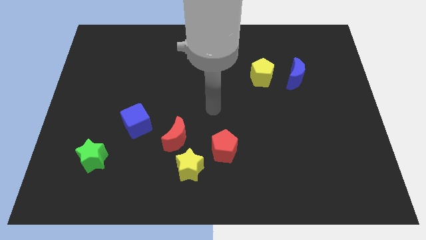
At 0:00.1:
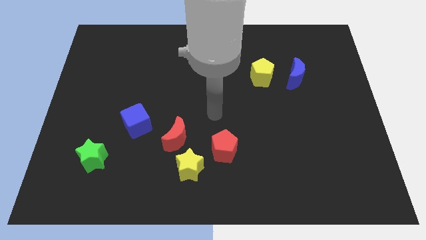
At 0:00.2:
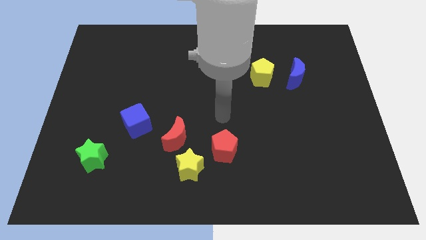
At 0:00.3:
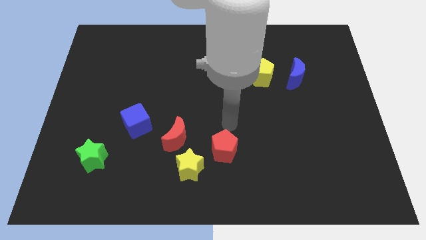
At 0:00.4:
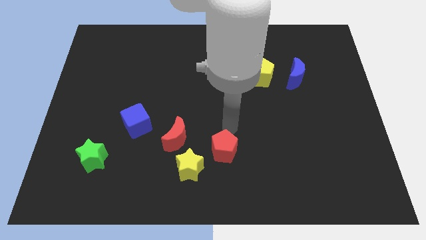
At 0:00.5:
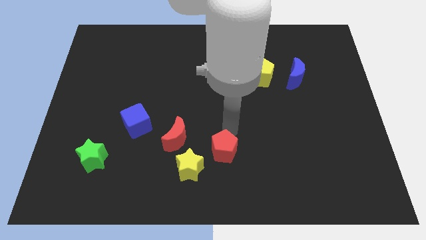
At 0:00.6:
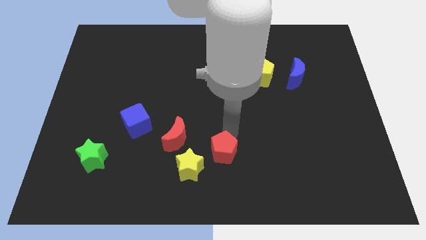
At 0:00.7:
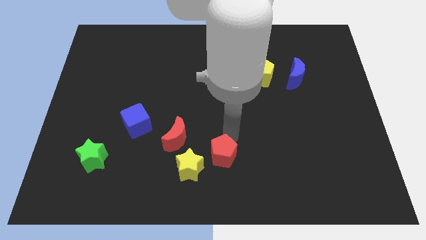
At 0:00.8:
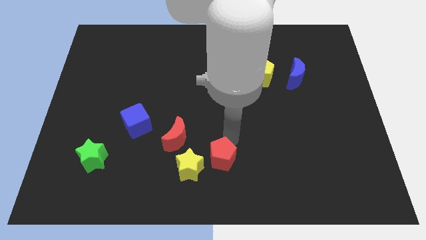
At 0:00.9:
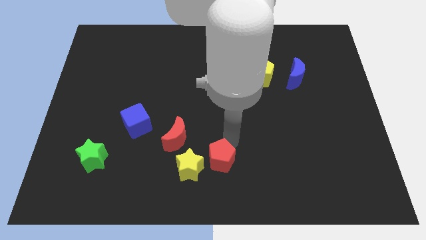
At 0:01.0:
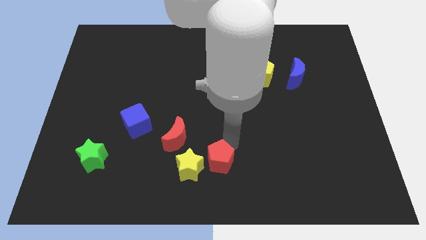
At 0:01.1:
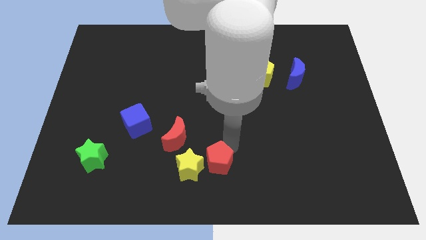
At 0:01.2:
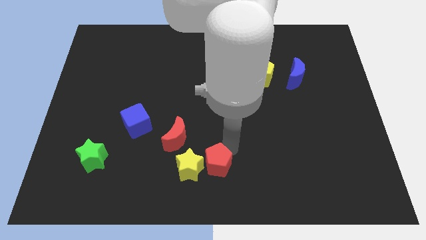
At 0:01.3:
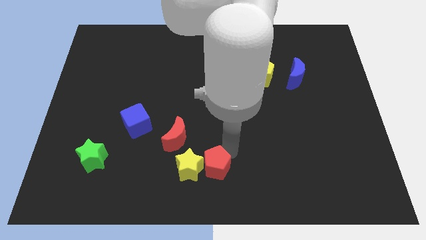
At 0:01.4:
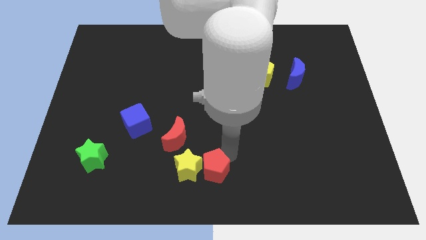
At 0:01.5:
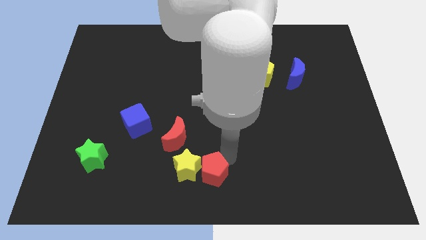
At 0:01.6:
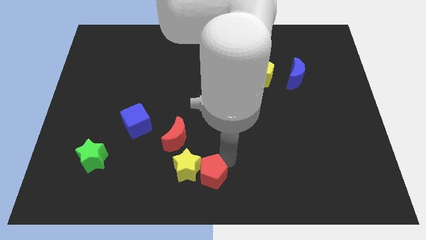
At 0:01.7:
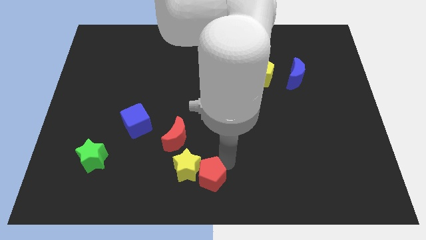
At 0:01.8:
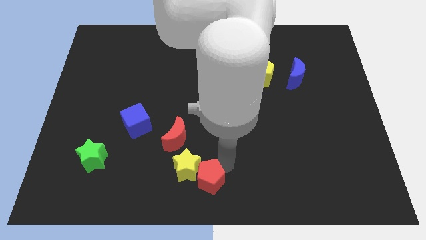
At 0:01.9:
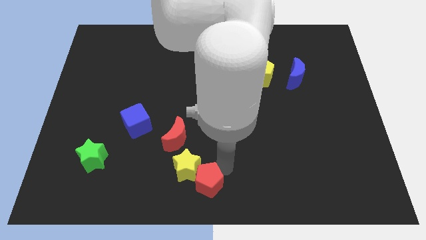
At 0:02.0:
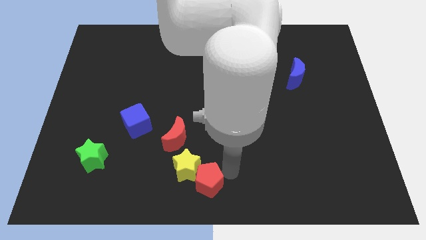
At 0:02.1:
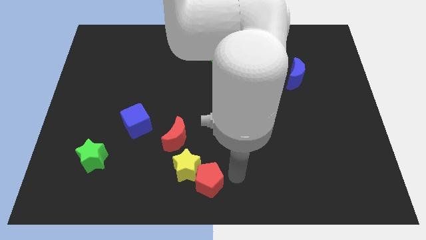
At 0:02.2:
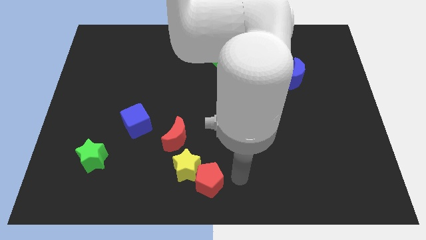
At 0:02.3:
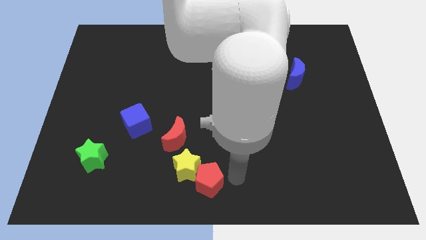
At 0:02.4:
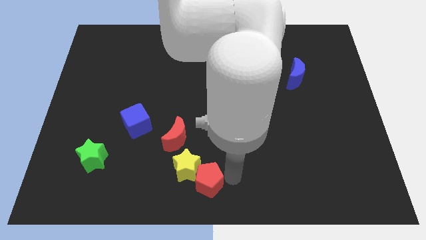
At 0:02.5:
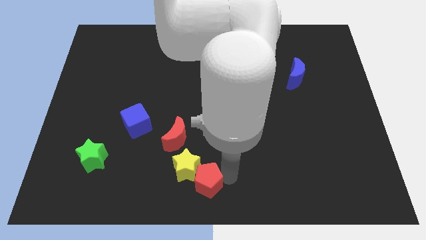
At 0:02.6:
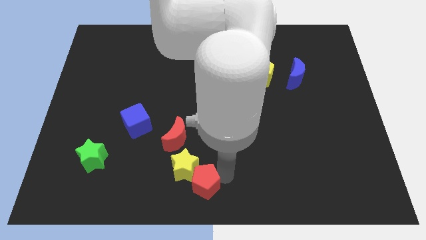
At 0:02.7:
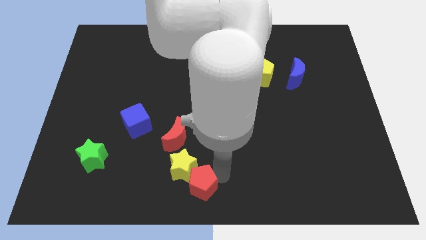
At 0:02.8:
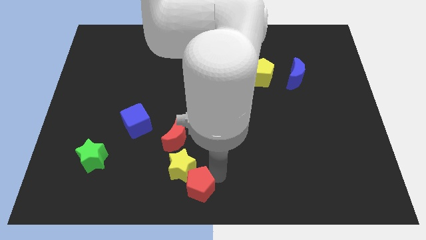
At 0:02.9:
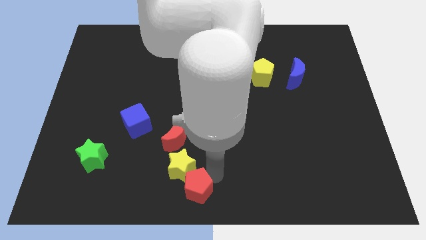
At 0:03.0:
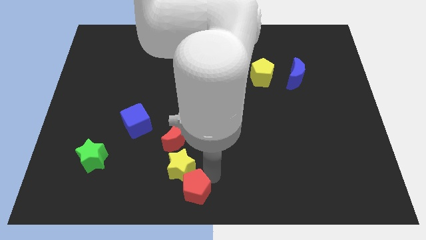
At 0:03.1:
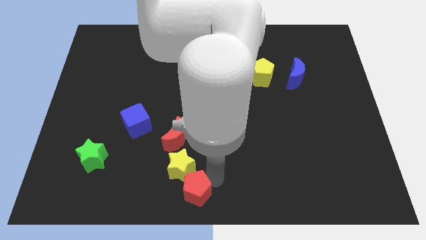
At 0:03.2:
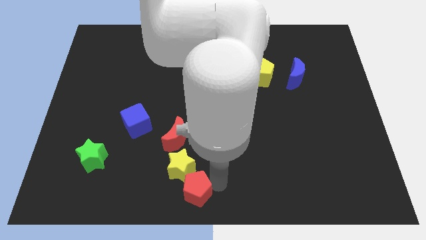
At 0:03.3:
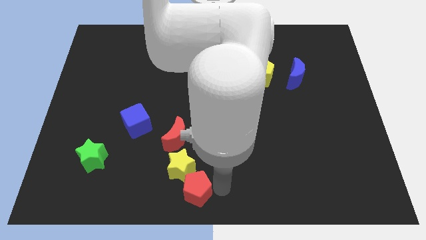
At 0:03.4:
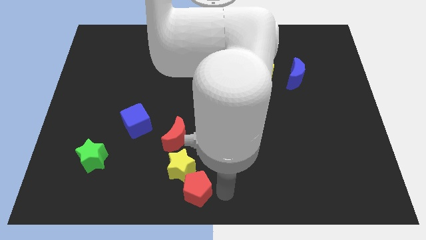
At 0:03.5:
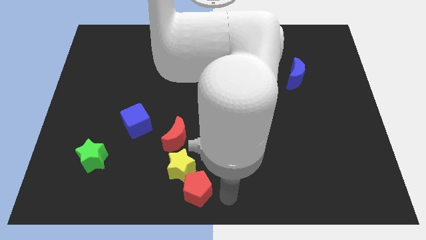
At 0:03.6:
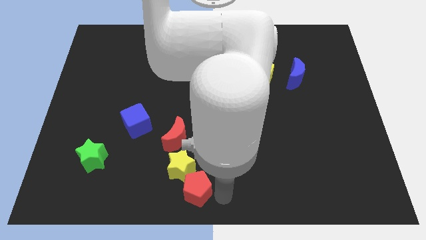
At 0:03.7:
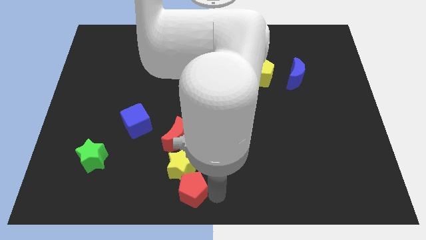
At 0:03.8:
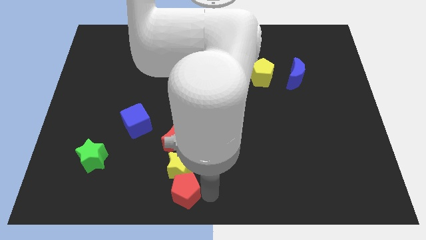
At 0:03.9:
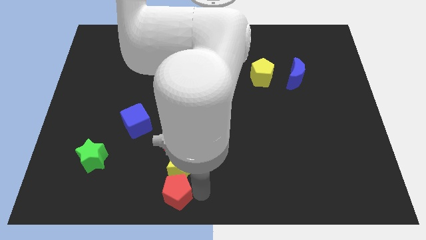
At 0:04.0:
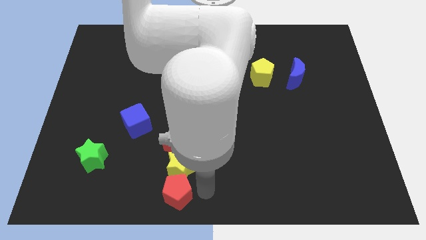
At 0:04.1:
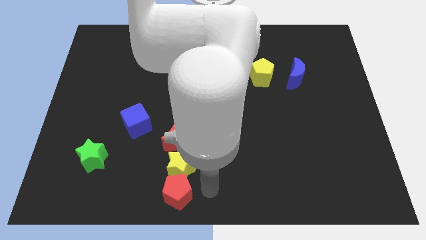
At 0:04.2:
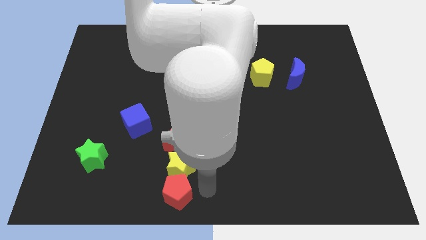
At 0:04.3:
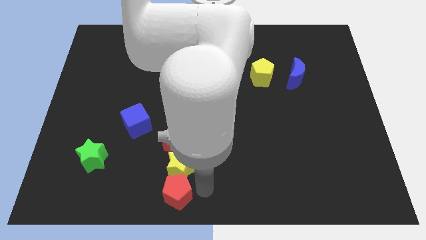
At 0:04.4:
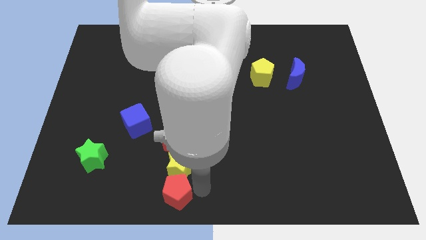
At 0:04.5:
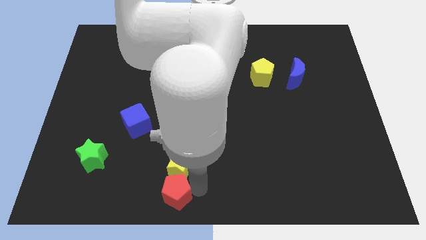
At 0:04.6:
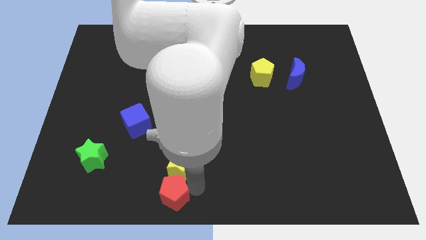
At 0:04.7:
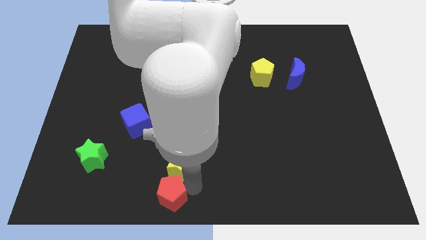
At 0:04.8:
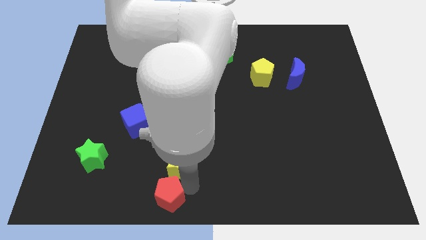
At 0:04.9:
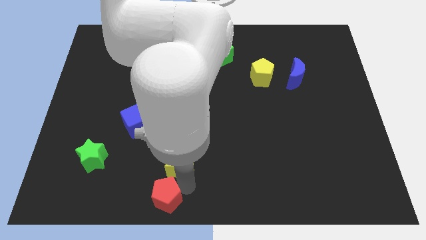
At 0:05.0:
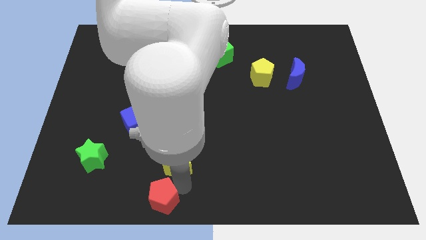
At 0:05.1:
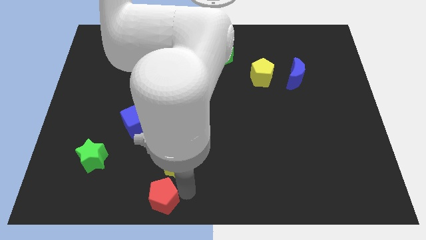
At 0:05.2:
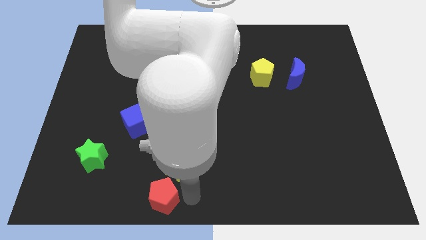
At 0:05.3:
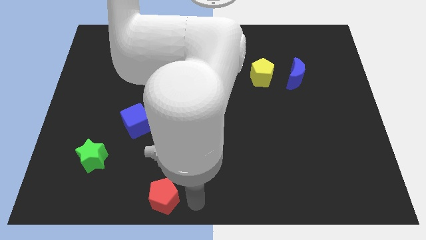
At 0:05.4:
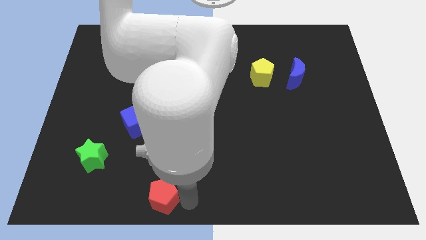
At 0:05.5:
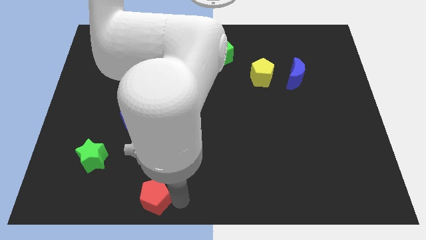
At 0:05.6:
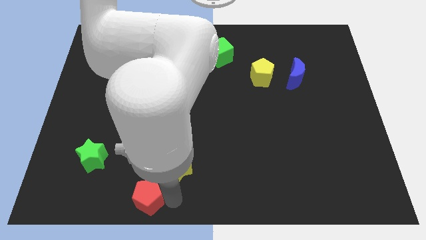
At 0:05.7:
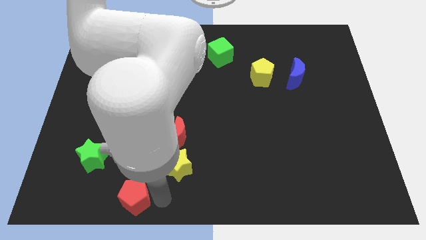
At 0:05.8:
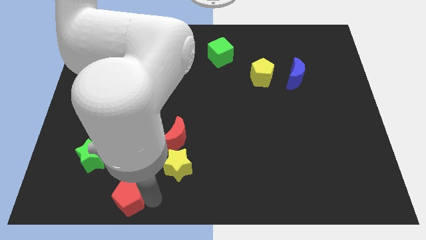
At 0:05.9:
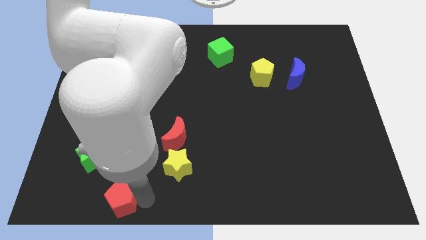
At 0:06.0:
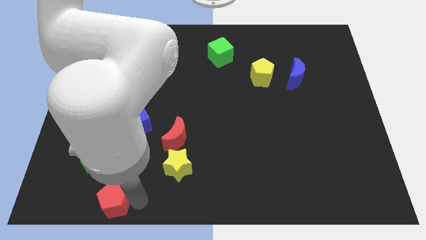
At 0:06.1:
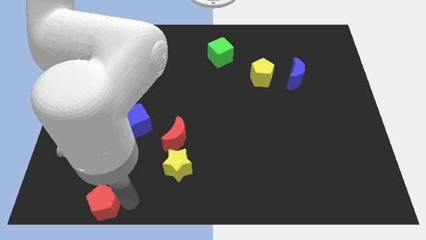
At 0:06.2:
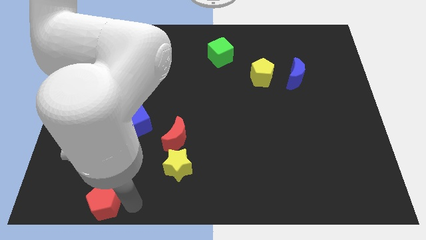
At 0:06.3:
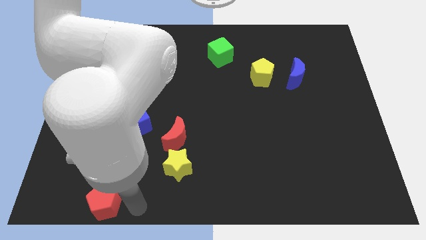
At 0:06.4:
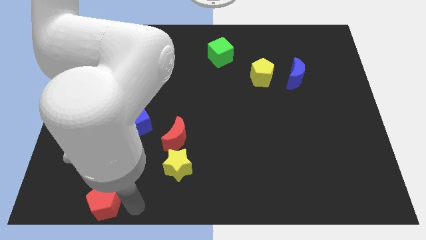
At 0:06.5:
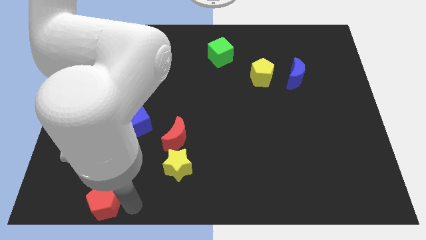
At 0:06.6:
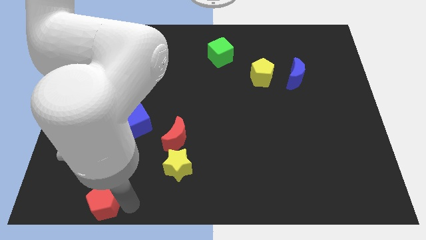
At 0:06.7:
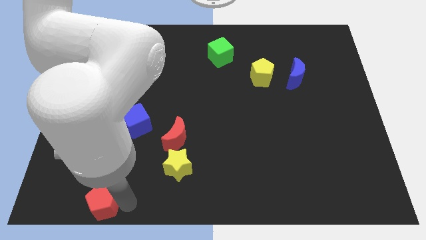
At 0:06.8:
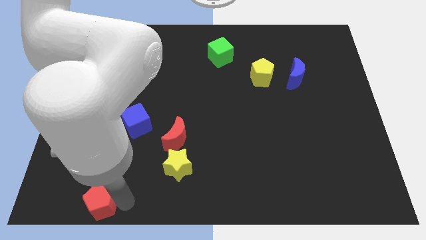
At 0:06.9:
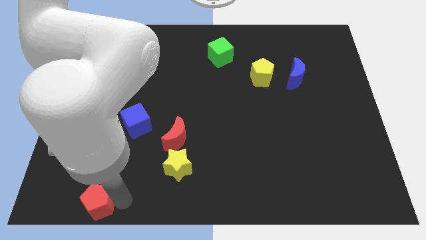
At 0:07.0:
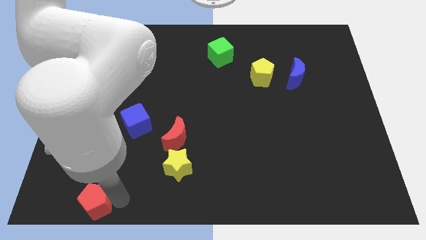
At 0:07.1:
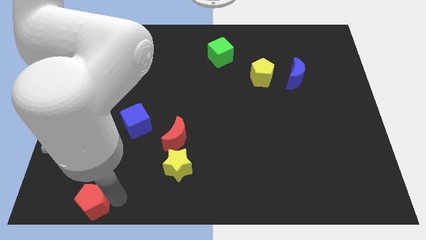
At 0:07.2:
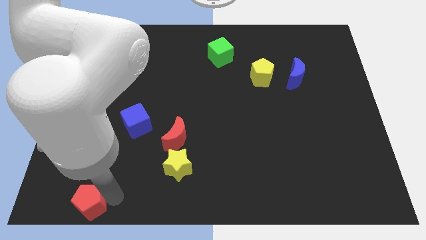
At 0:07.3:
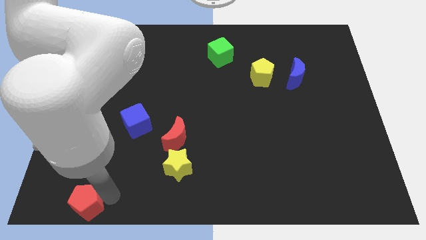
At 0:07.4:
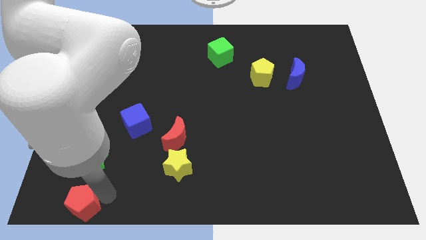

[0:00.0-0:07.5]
push the red pentagon to the bottom left of the board
